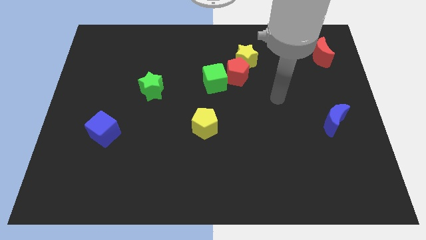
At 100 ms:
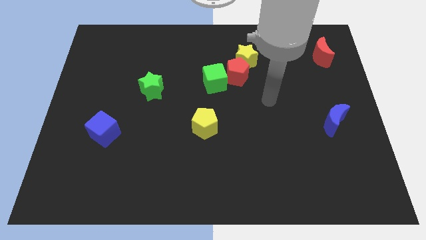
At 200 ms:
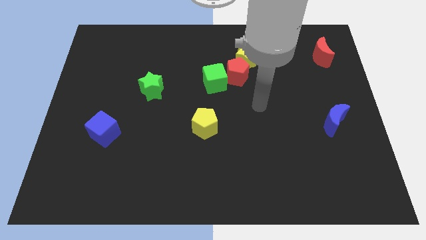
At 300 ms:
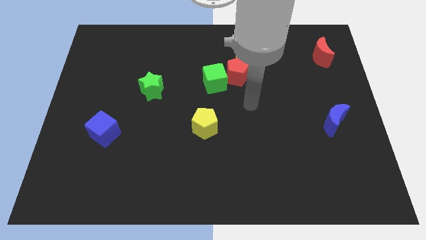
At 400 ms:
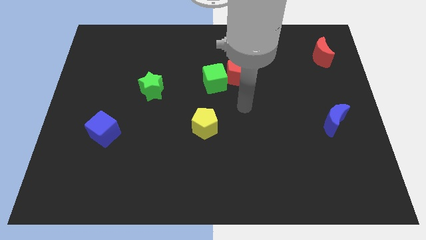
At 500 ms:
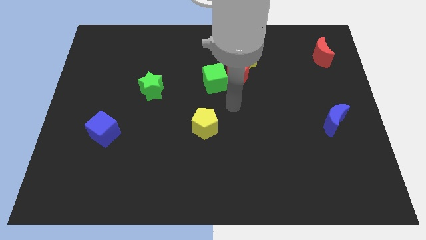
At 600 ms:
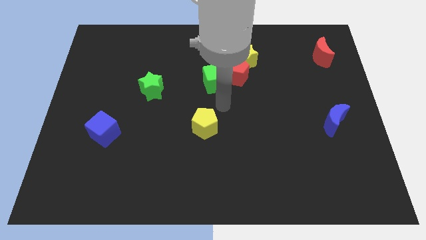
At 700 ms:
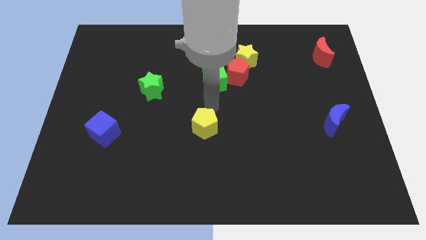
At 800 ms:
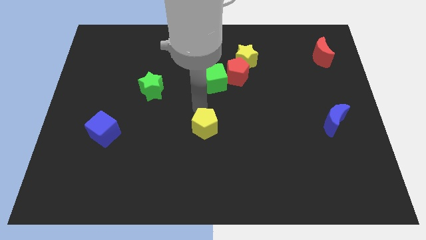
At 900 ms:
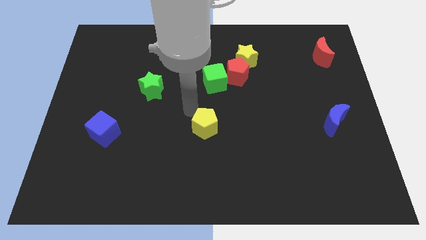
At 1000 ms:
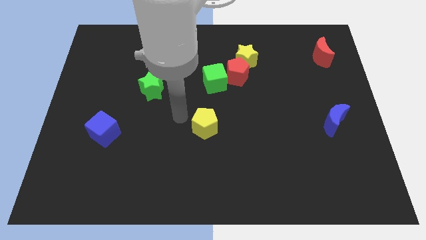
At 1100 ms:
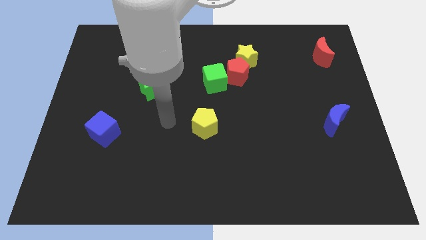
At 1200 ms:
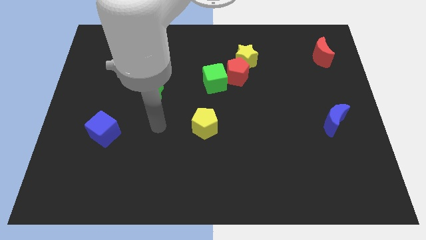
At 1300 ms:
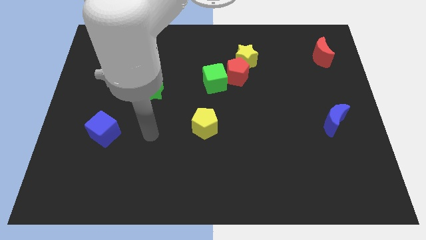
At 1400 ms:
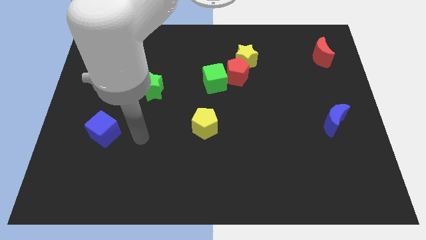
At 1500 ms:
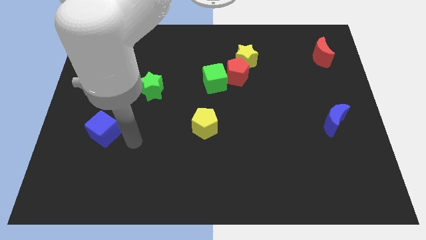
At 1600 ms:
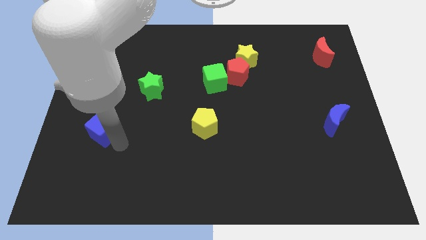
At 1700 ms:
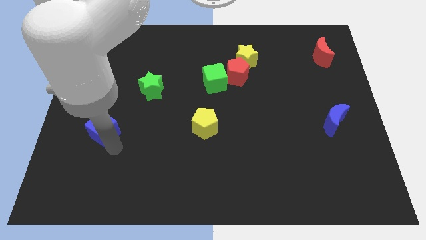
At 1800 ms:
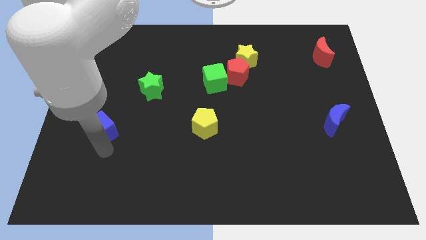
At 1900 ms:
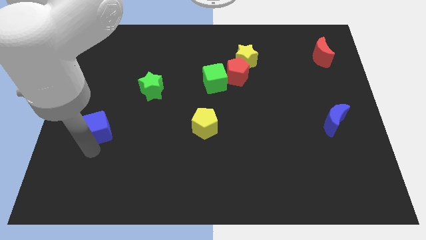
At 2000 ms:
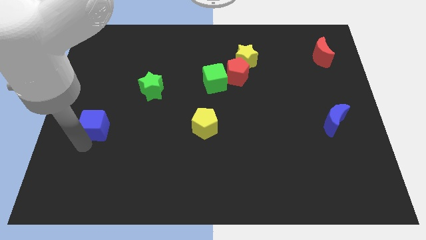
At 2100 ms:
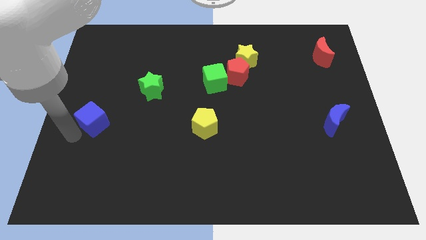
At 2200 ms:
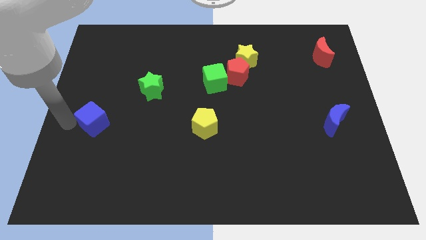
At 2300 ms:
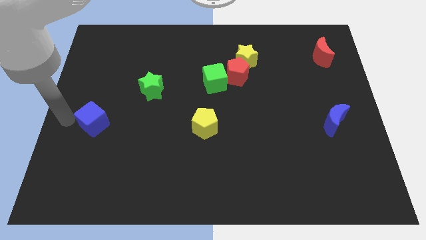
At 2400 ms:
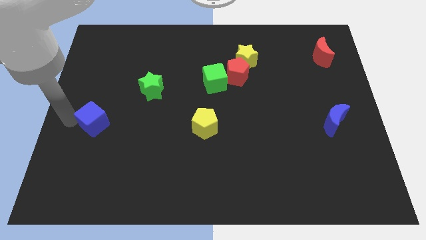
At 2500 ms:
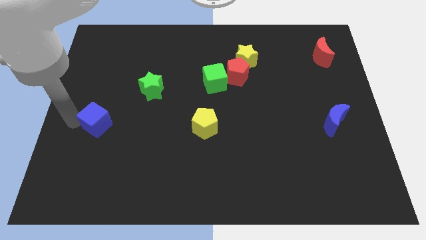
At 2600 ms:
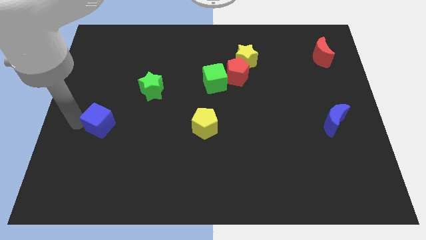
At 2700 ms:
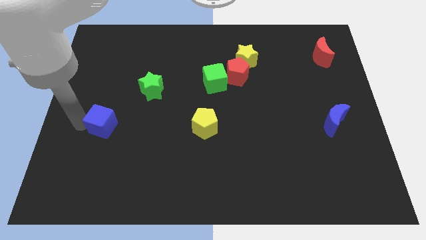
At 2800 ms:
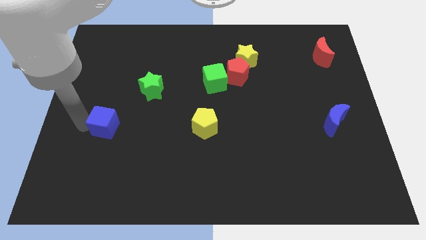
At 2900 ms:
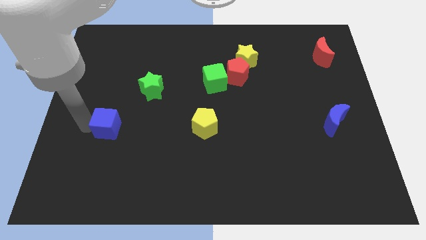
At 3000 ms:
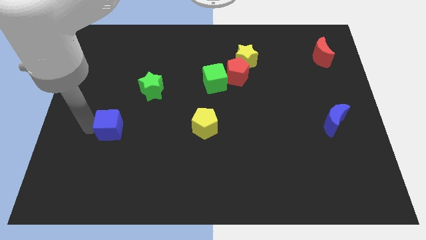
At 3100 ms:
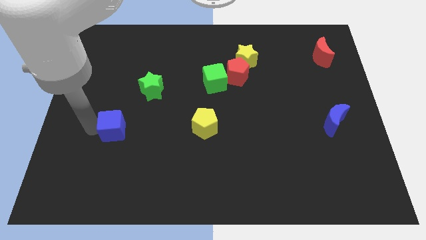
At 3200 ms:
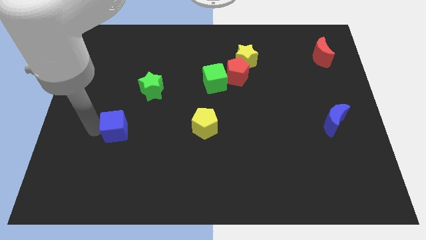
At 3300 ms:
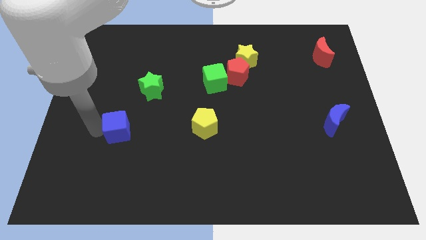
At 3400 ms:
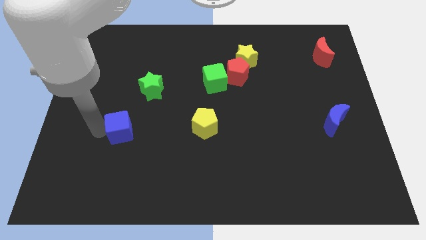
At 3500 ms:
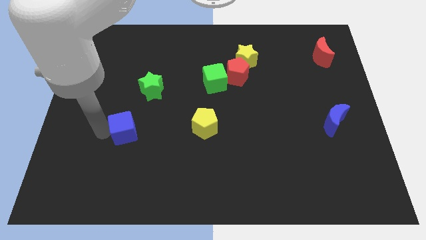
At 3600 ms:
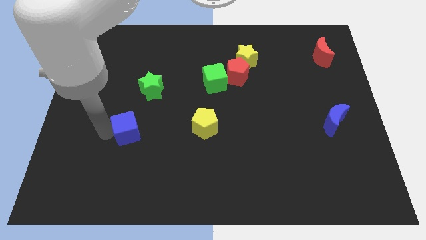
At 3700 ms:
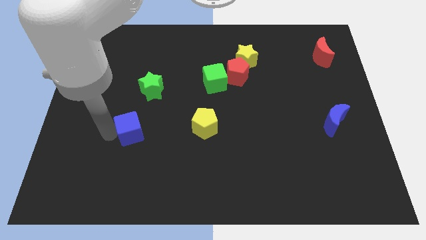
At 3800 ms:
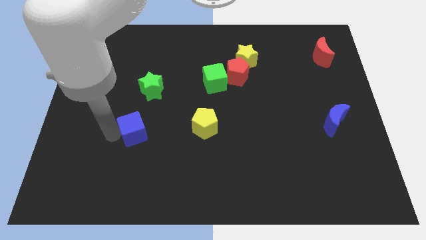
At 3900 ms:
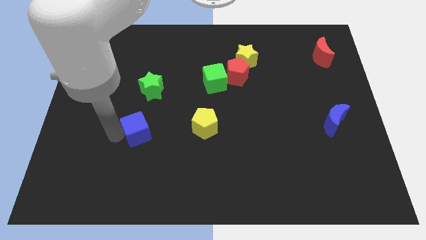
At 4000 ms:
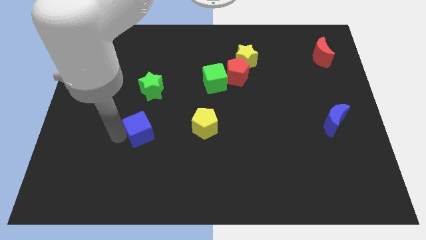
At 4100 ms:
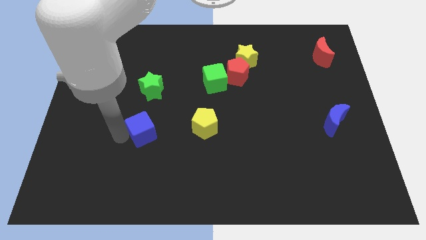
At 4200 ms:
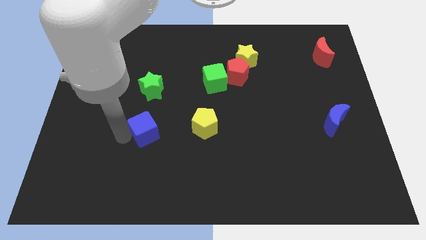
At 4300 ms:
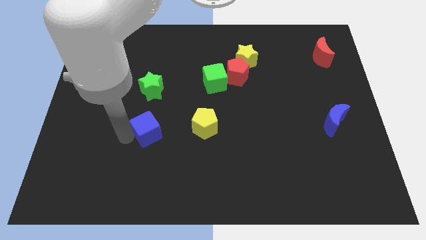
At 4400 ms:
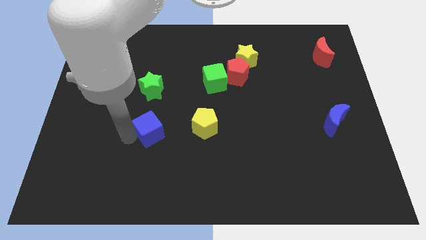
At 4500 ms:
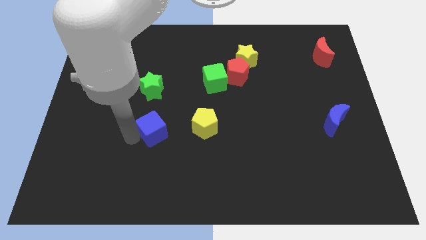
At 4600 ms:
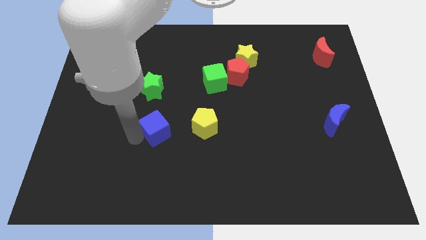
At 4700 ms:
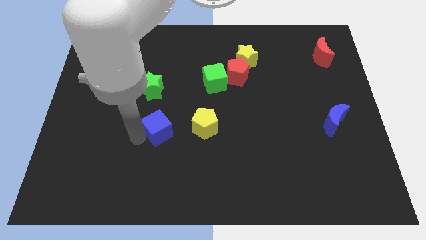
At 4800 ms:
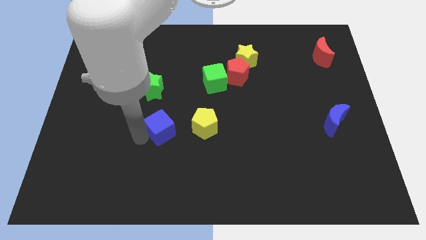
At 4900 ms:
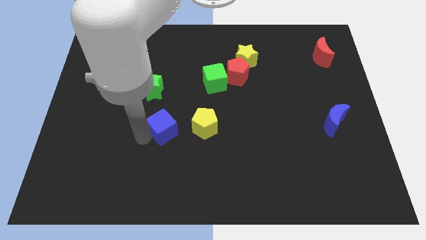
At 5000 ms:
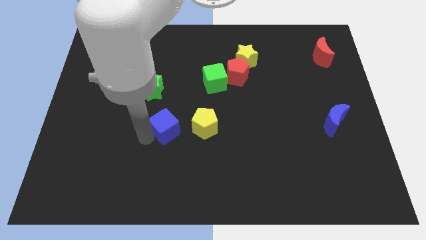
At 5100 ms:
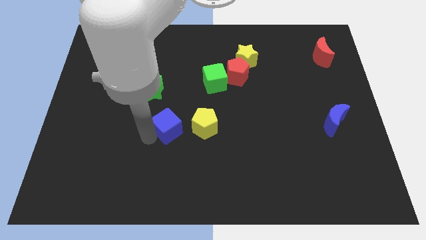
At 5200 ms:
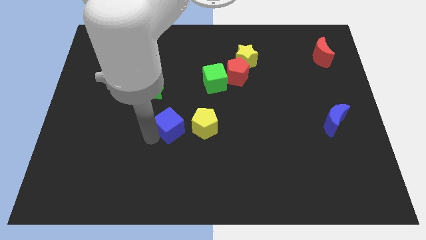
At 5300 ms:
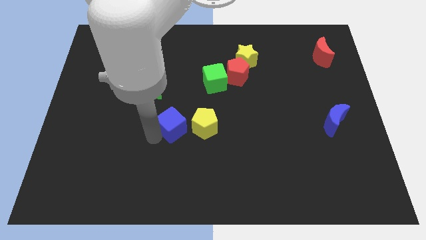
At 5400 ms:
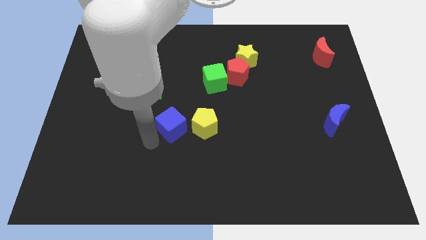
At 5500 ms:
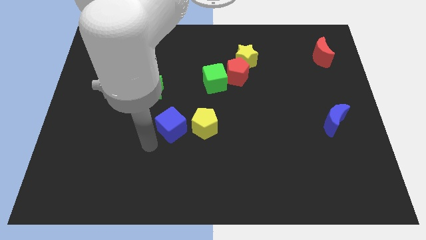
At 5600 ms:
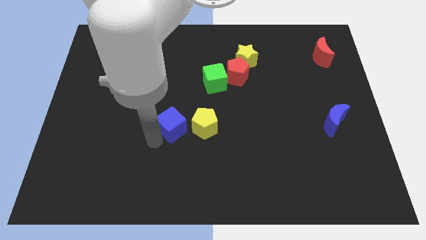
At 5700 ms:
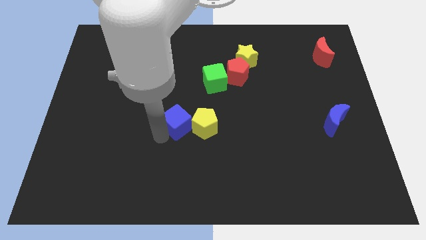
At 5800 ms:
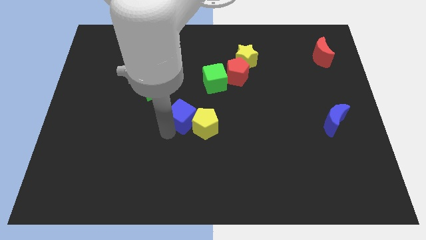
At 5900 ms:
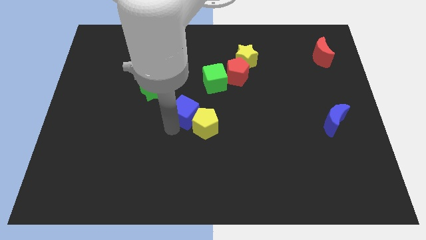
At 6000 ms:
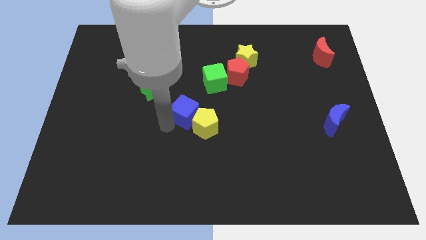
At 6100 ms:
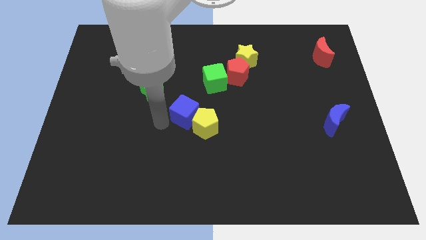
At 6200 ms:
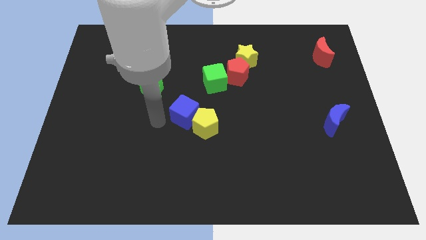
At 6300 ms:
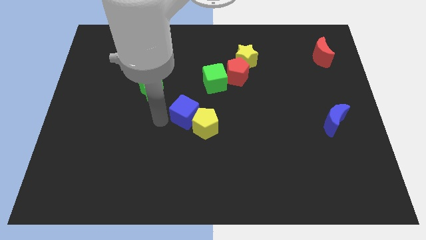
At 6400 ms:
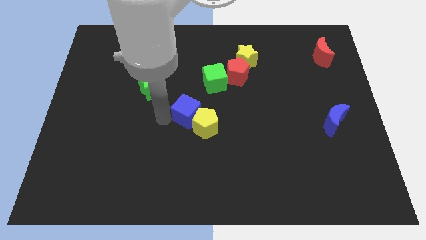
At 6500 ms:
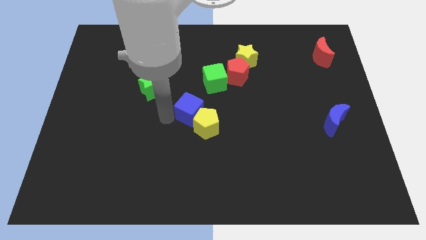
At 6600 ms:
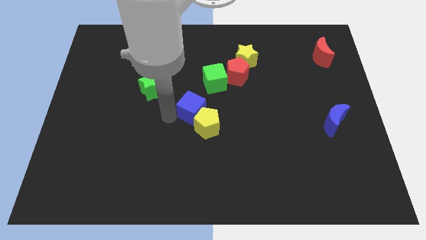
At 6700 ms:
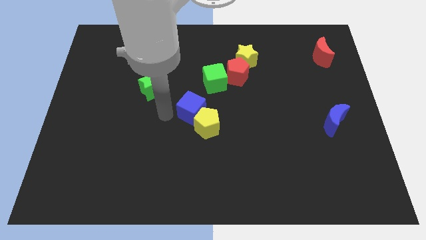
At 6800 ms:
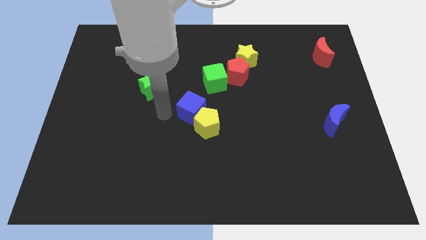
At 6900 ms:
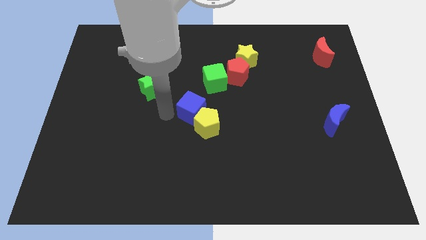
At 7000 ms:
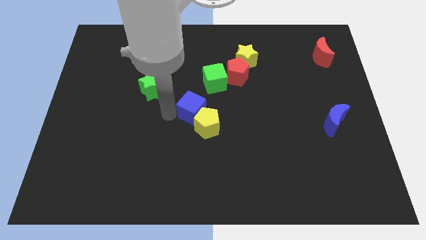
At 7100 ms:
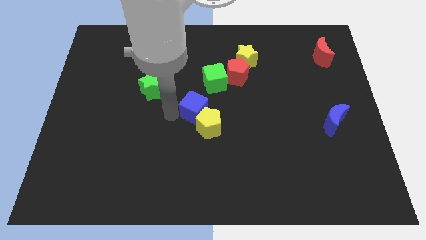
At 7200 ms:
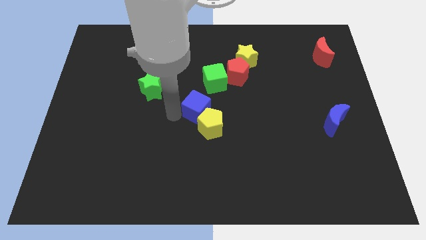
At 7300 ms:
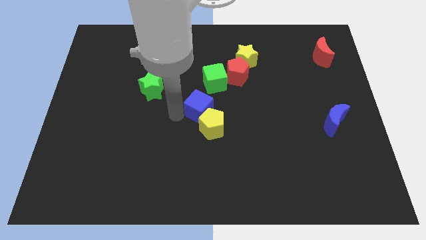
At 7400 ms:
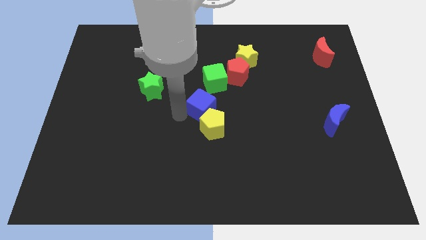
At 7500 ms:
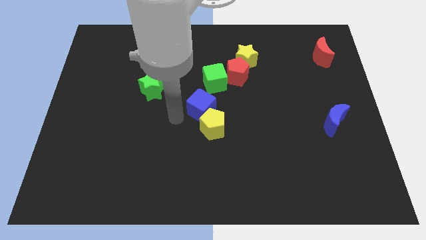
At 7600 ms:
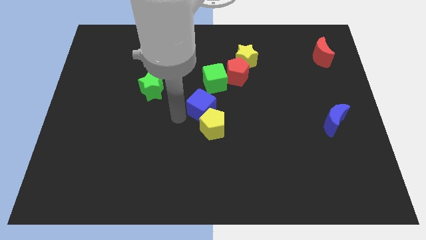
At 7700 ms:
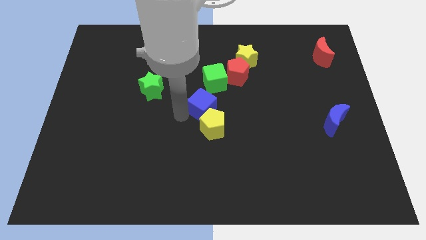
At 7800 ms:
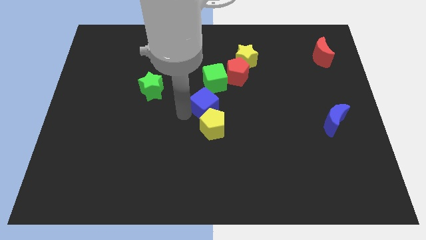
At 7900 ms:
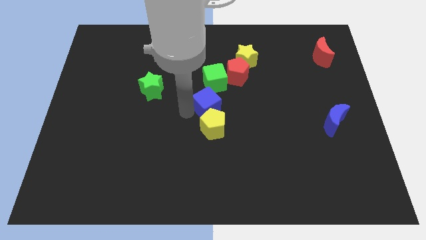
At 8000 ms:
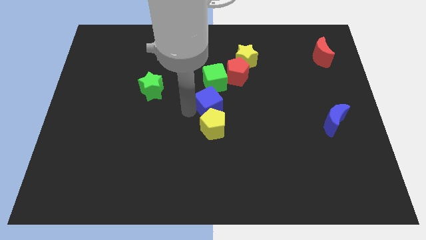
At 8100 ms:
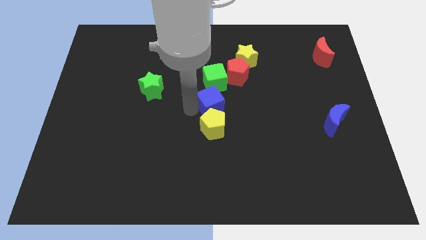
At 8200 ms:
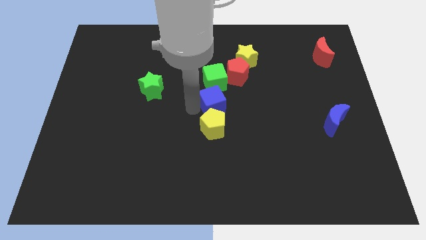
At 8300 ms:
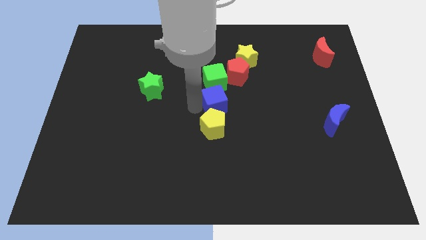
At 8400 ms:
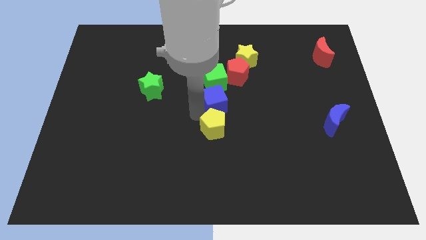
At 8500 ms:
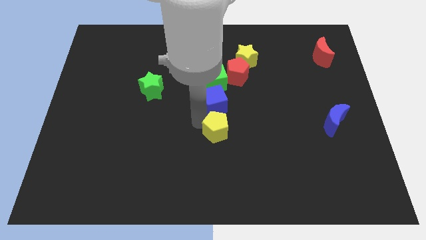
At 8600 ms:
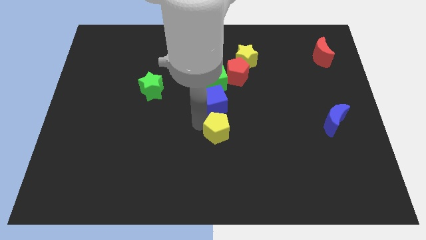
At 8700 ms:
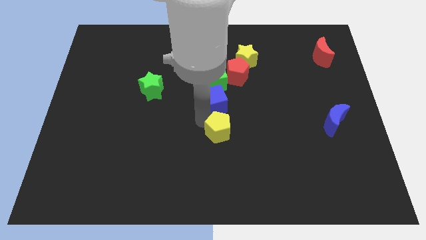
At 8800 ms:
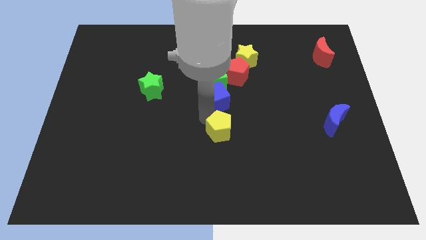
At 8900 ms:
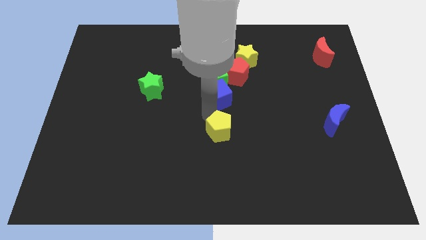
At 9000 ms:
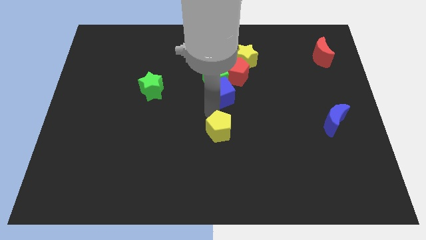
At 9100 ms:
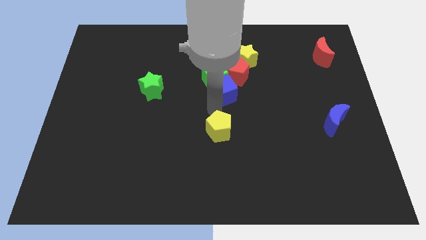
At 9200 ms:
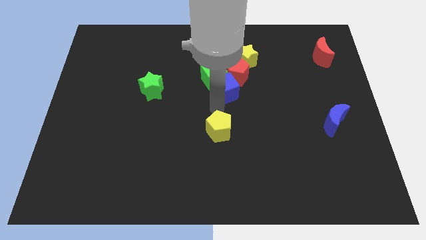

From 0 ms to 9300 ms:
move the blue cube to the red pentagon
